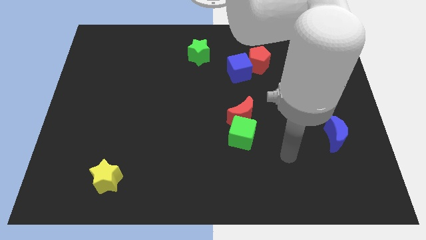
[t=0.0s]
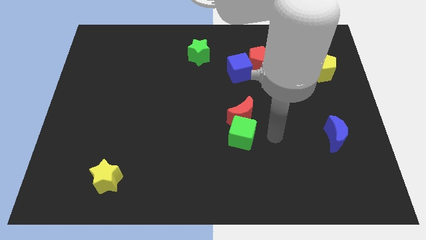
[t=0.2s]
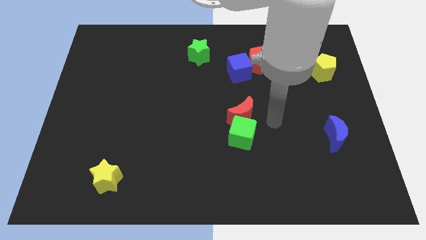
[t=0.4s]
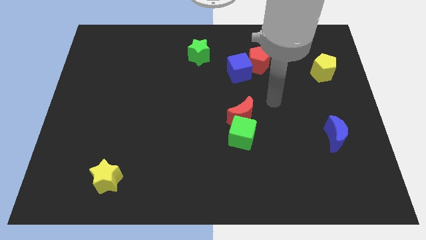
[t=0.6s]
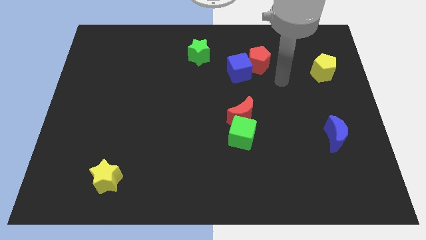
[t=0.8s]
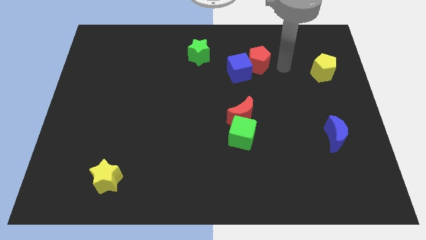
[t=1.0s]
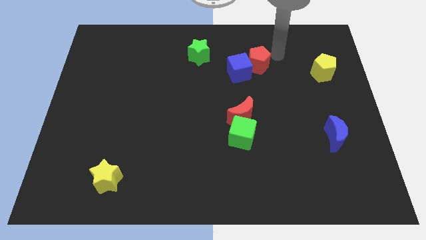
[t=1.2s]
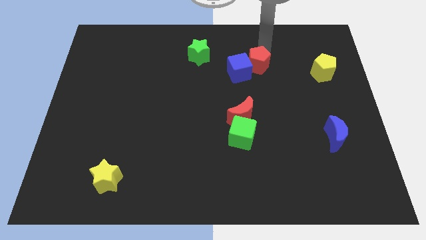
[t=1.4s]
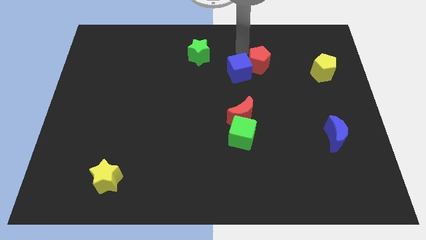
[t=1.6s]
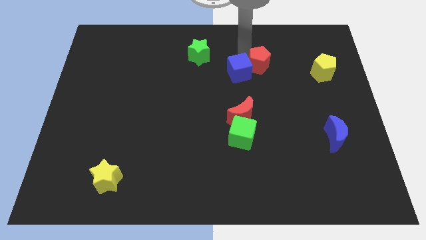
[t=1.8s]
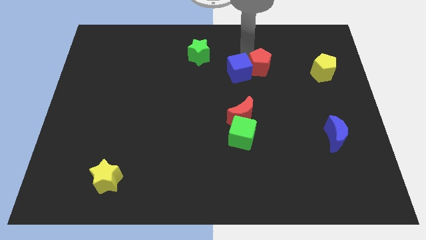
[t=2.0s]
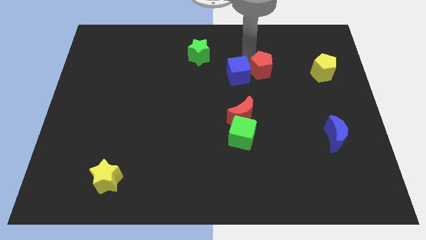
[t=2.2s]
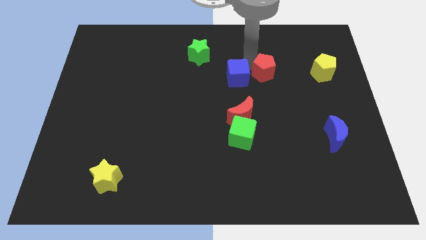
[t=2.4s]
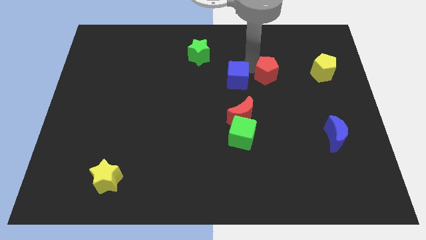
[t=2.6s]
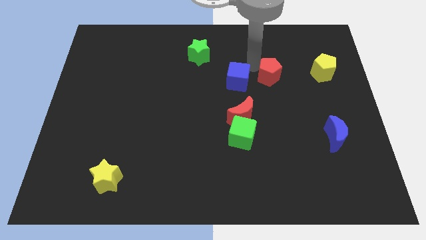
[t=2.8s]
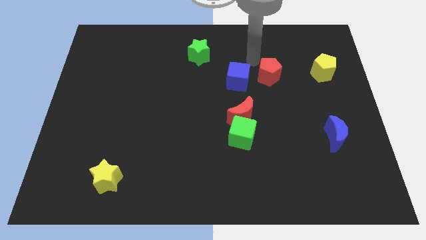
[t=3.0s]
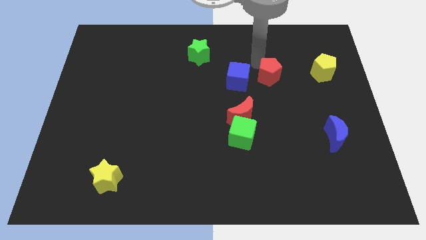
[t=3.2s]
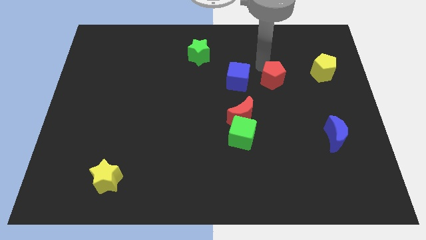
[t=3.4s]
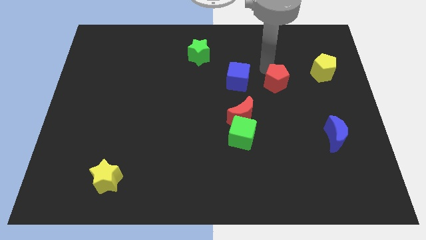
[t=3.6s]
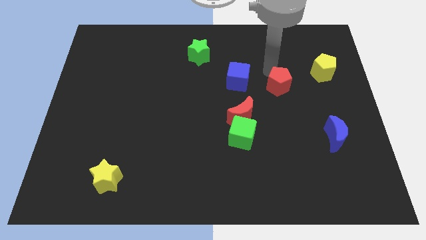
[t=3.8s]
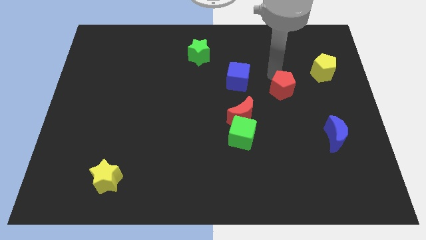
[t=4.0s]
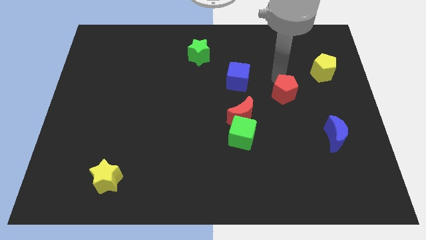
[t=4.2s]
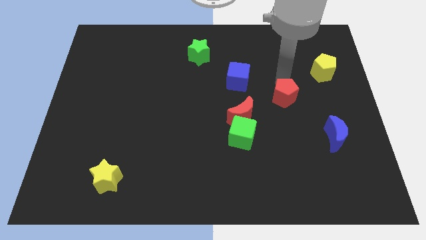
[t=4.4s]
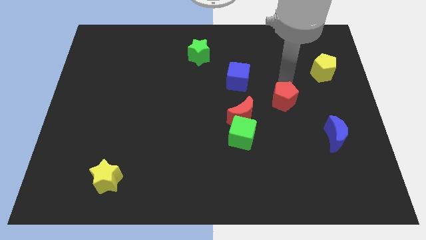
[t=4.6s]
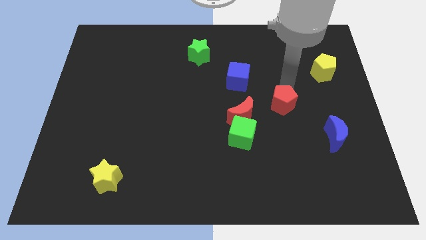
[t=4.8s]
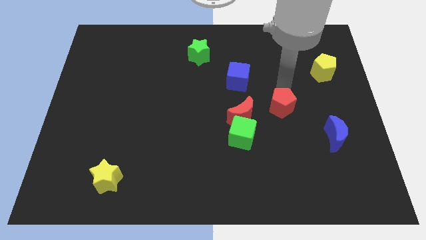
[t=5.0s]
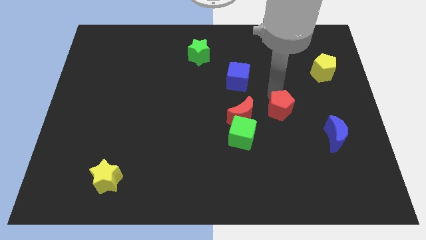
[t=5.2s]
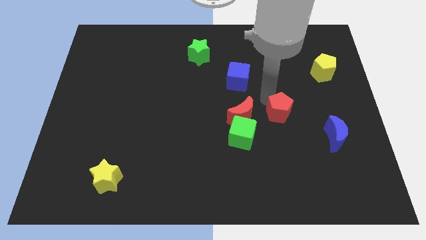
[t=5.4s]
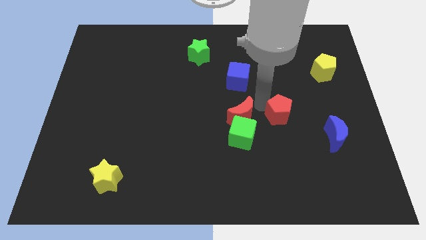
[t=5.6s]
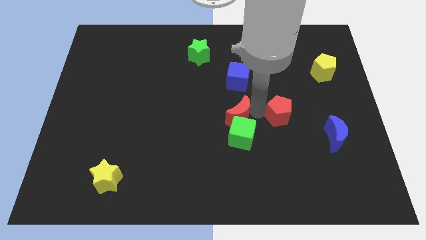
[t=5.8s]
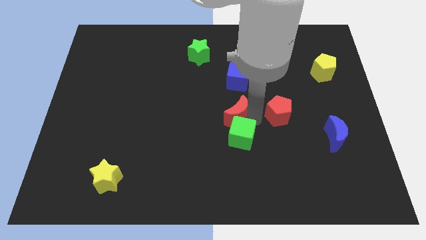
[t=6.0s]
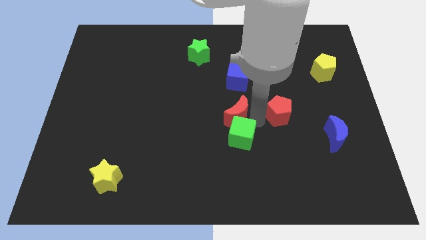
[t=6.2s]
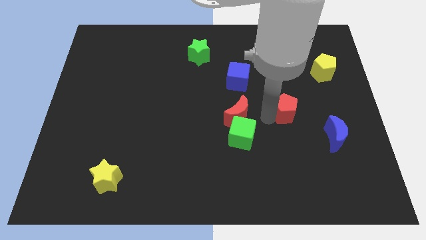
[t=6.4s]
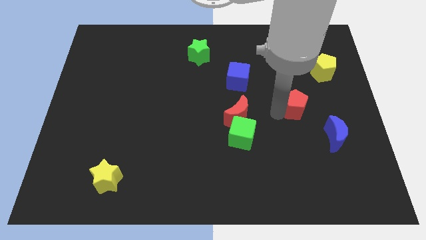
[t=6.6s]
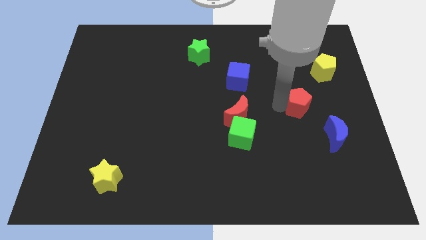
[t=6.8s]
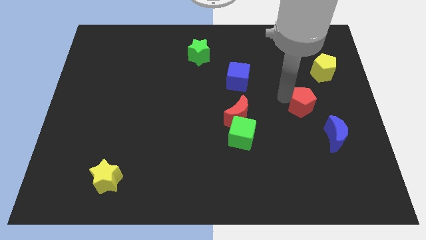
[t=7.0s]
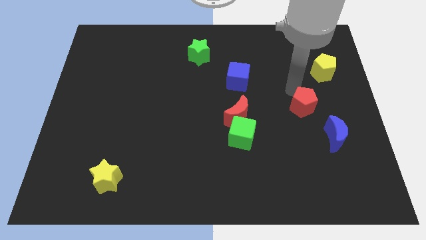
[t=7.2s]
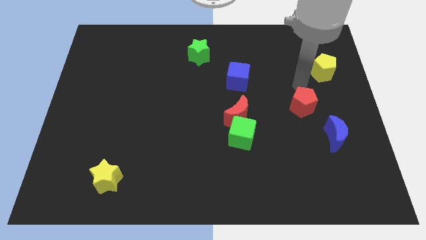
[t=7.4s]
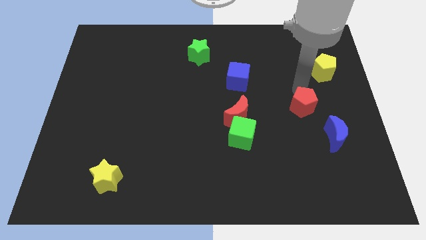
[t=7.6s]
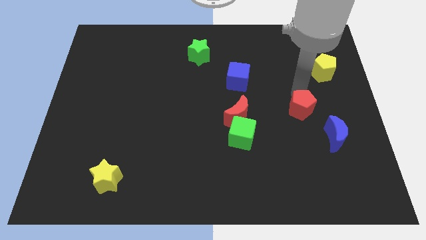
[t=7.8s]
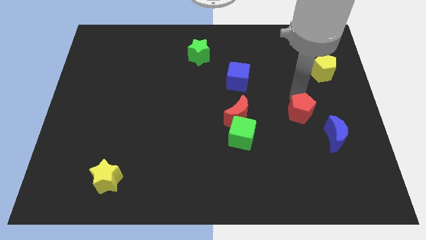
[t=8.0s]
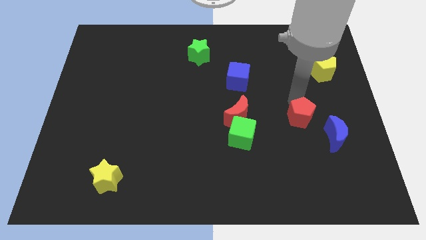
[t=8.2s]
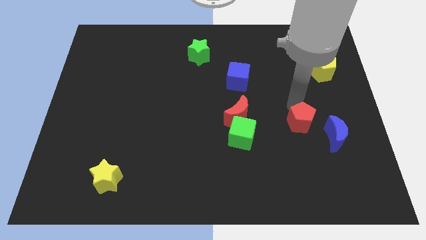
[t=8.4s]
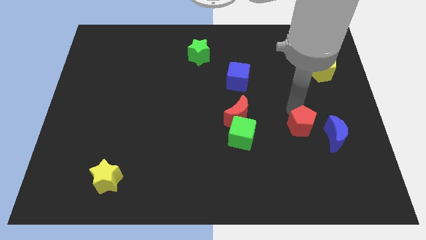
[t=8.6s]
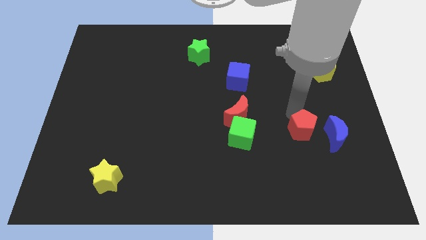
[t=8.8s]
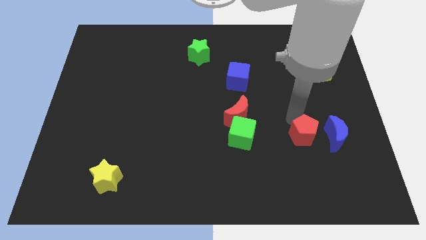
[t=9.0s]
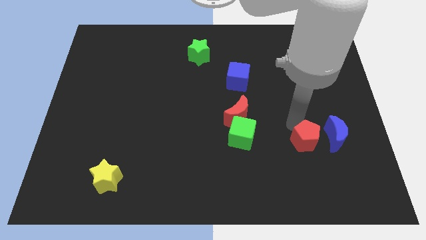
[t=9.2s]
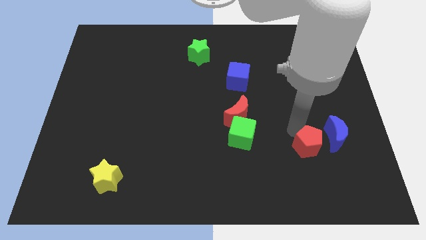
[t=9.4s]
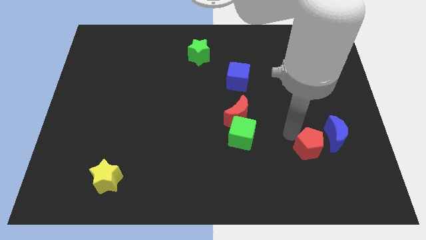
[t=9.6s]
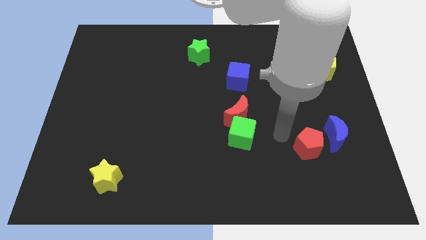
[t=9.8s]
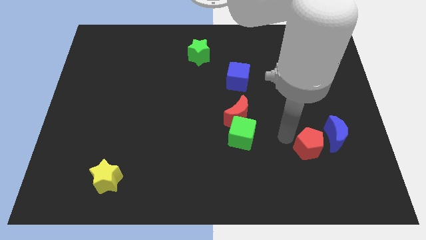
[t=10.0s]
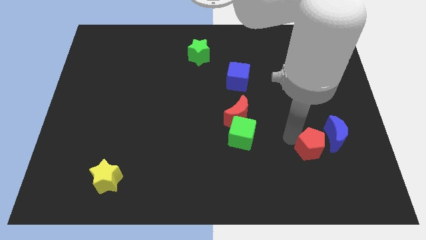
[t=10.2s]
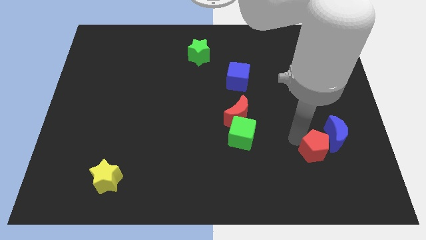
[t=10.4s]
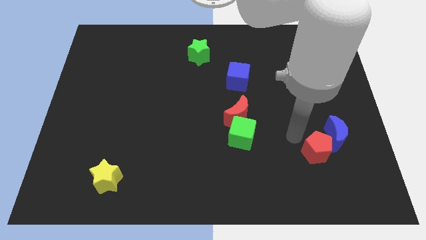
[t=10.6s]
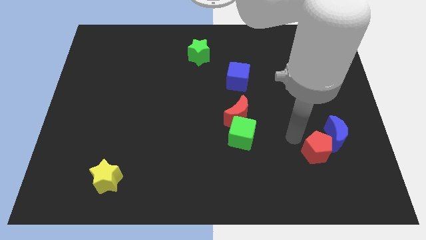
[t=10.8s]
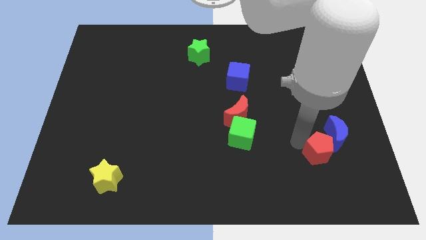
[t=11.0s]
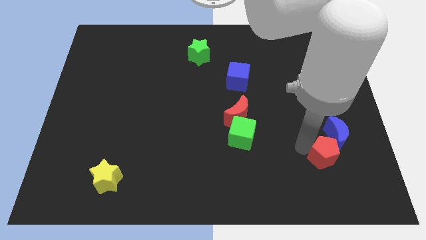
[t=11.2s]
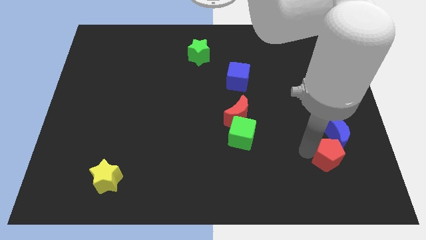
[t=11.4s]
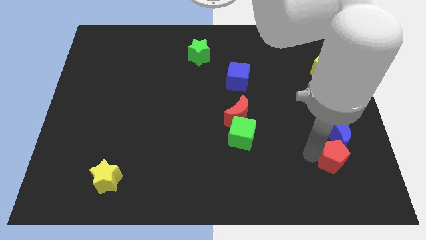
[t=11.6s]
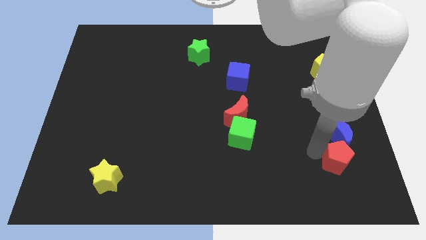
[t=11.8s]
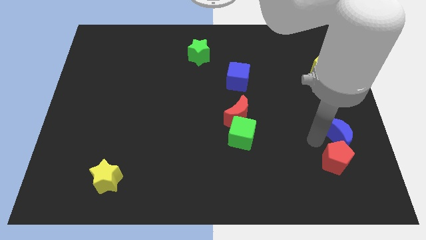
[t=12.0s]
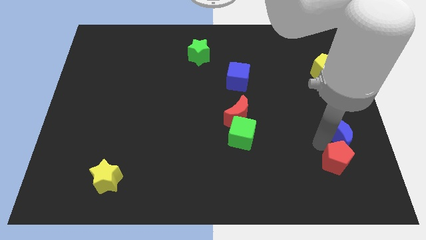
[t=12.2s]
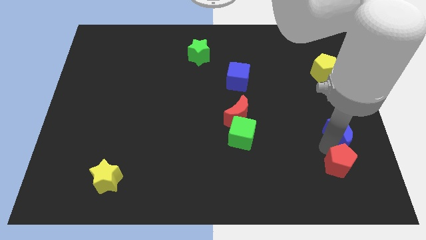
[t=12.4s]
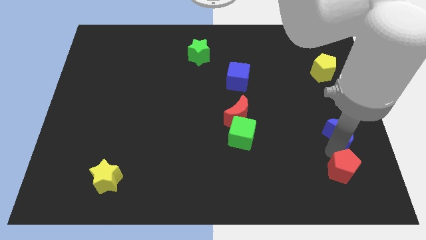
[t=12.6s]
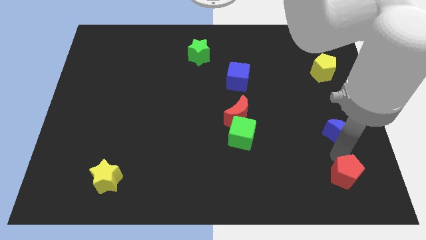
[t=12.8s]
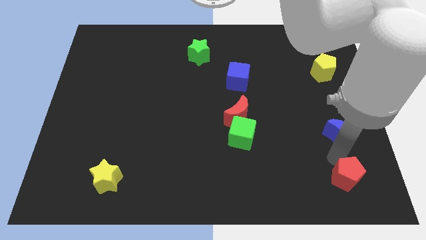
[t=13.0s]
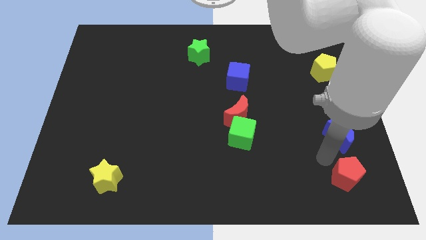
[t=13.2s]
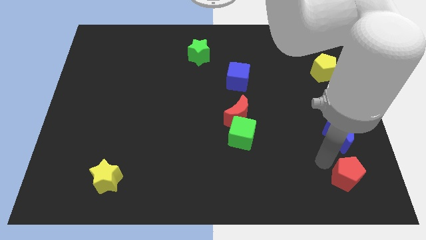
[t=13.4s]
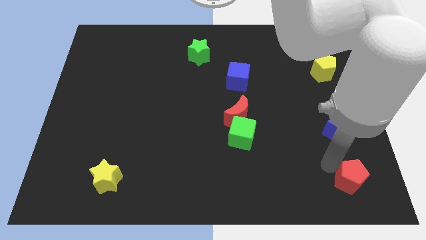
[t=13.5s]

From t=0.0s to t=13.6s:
slide the red pentagon to the bottom right
